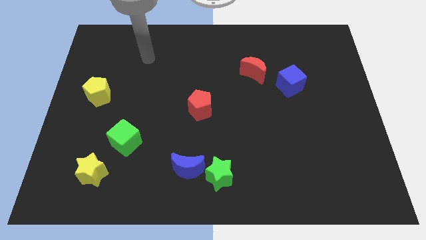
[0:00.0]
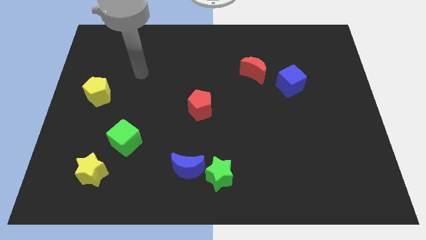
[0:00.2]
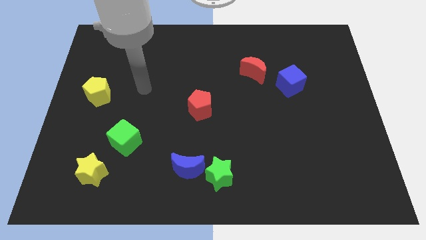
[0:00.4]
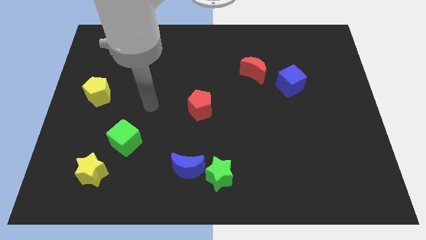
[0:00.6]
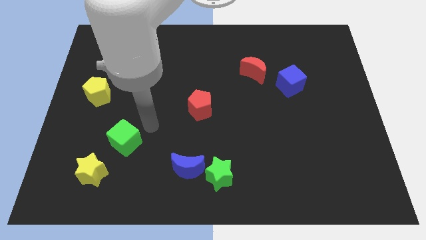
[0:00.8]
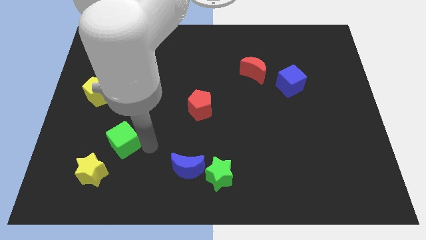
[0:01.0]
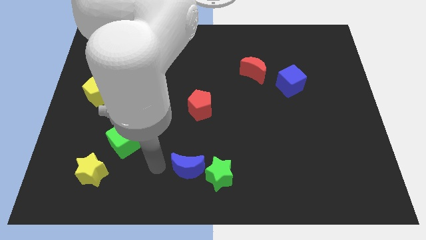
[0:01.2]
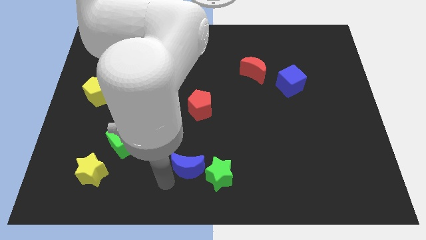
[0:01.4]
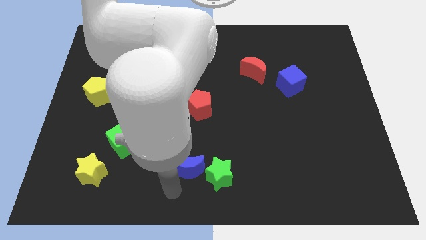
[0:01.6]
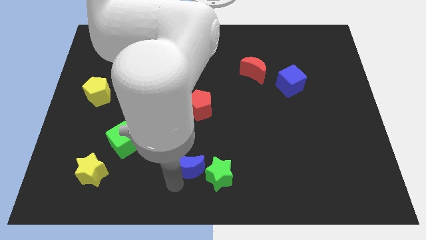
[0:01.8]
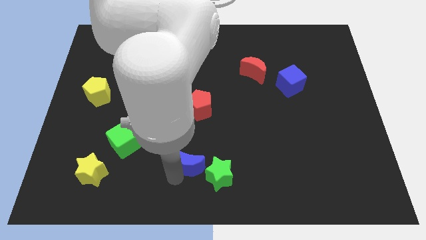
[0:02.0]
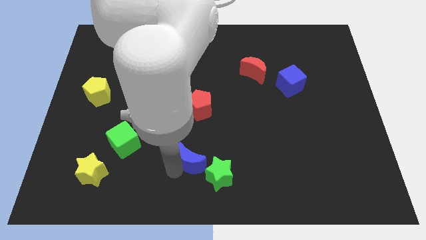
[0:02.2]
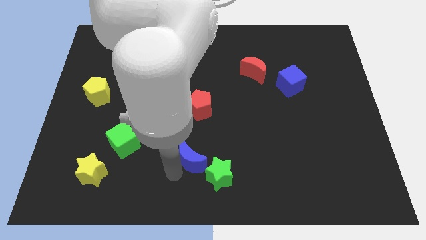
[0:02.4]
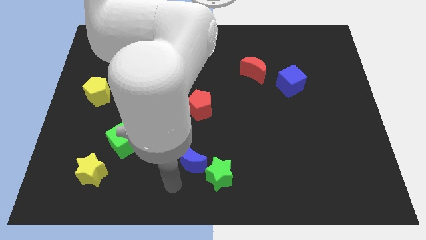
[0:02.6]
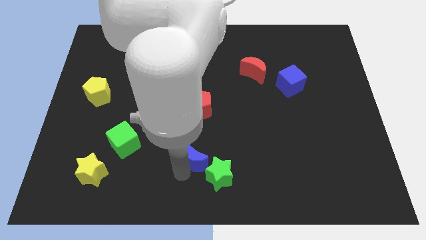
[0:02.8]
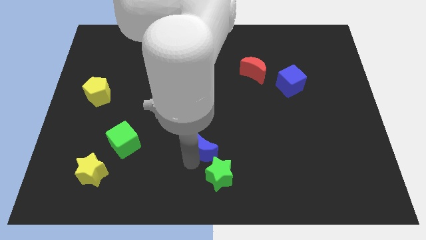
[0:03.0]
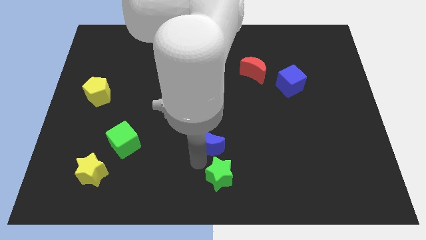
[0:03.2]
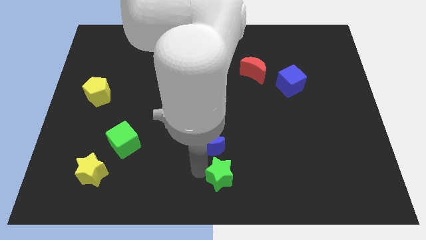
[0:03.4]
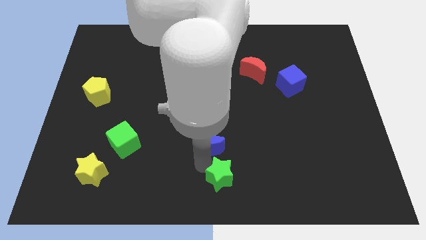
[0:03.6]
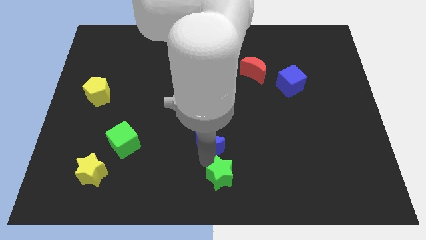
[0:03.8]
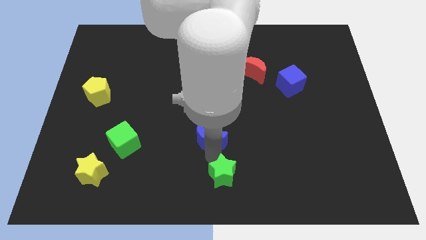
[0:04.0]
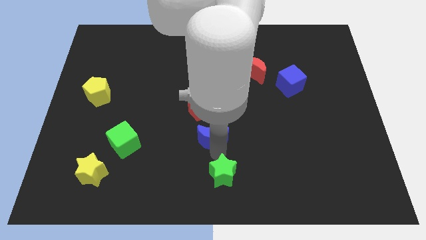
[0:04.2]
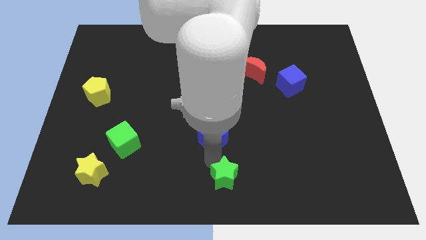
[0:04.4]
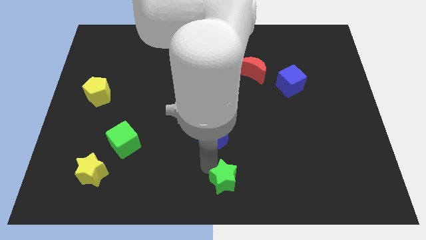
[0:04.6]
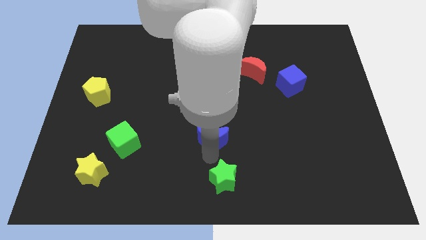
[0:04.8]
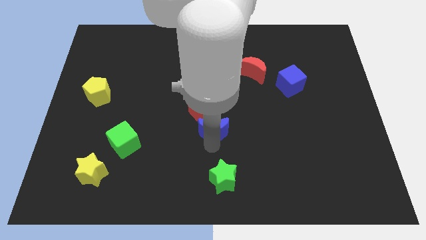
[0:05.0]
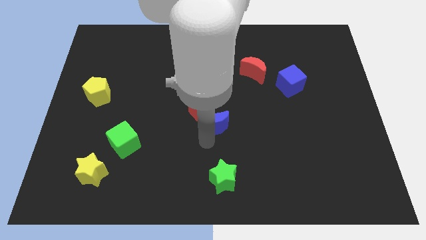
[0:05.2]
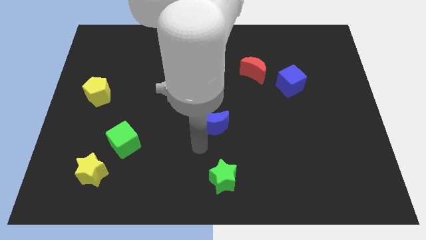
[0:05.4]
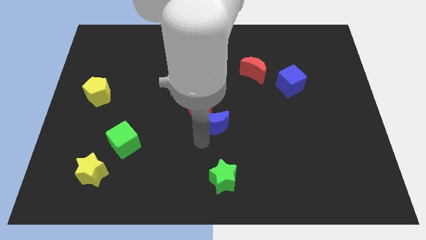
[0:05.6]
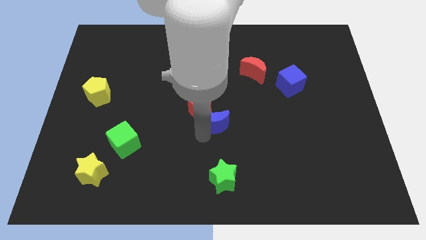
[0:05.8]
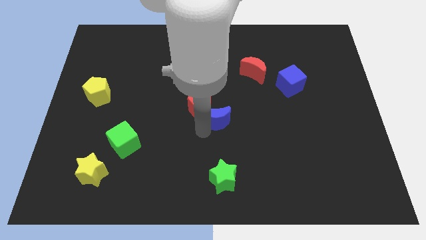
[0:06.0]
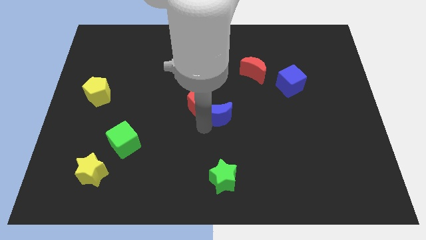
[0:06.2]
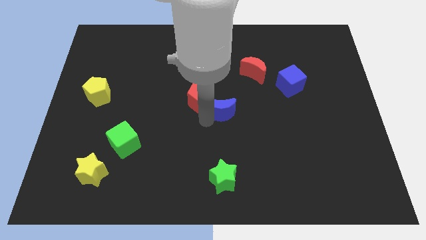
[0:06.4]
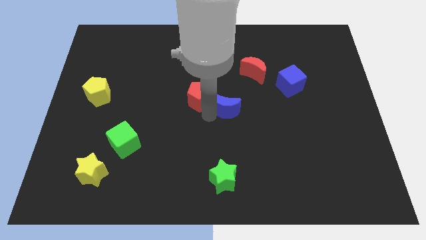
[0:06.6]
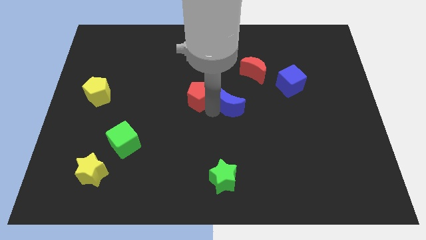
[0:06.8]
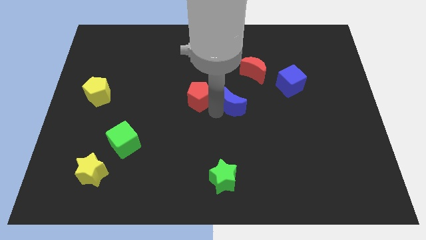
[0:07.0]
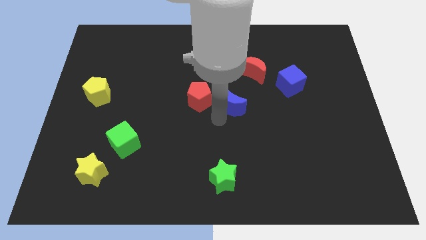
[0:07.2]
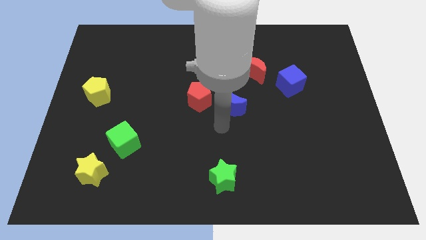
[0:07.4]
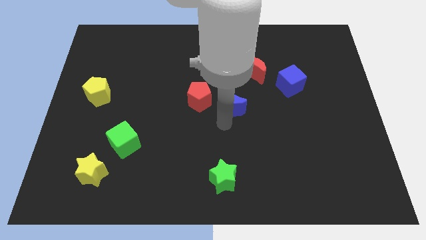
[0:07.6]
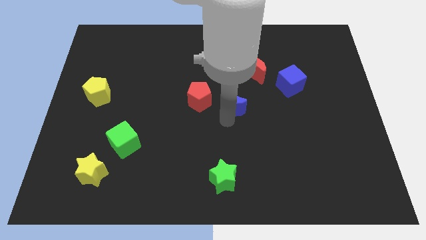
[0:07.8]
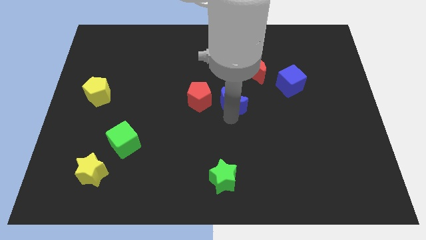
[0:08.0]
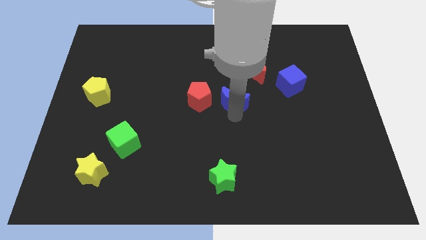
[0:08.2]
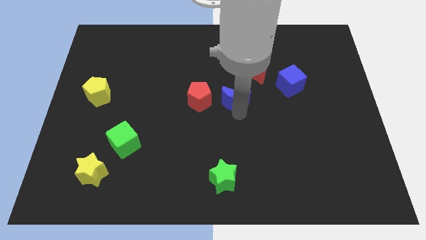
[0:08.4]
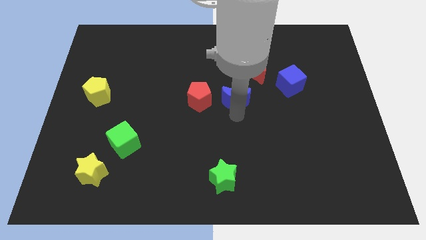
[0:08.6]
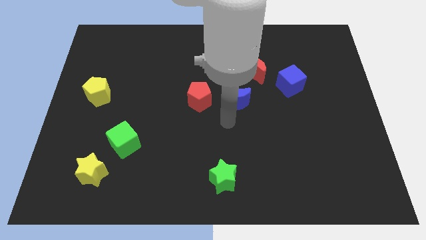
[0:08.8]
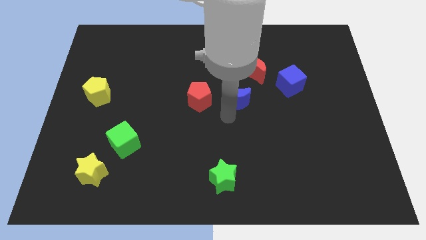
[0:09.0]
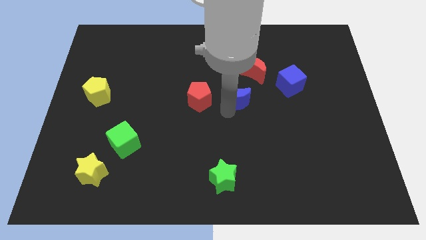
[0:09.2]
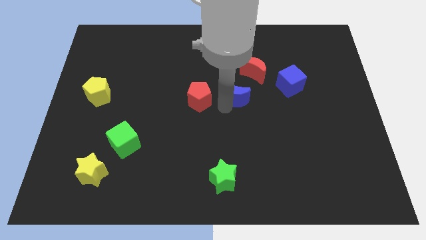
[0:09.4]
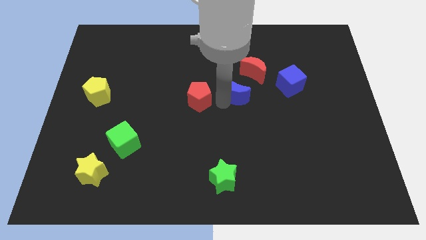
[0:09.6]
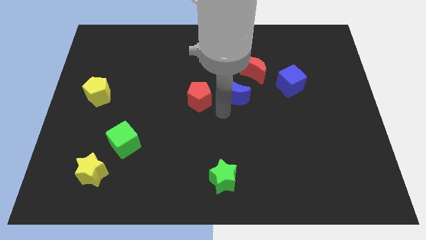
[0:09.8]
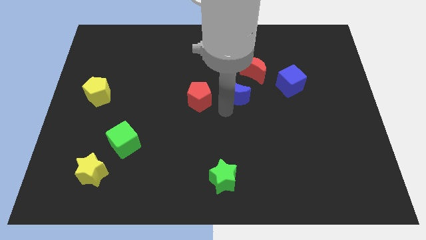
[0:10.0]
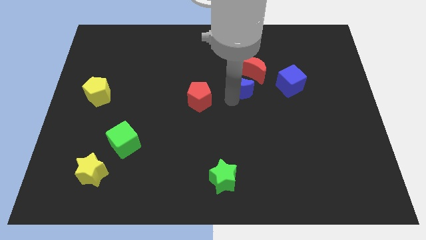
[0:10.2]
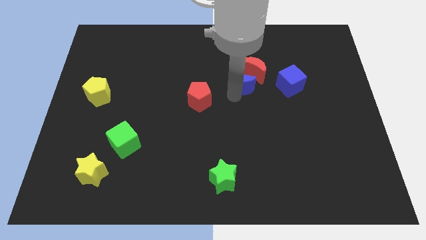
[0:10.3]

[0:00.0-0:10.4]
slide the blue moon towards the red moon

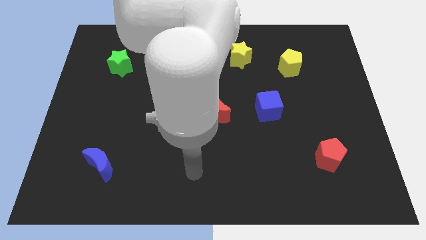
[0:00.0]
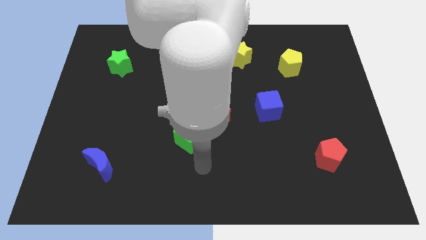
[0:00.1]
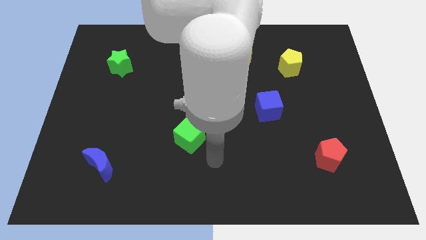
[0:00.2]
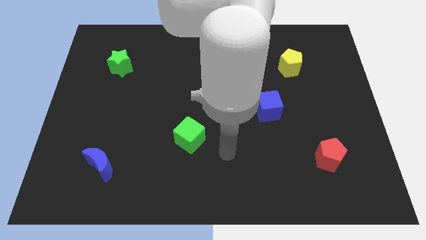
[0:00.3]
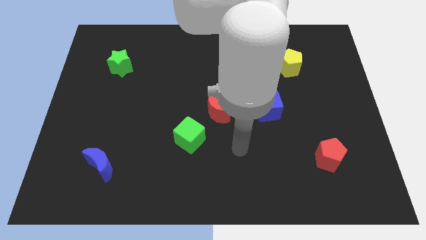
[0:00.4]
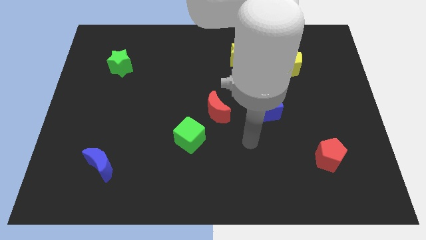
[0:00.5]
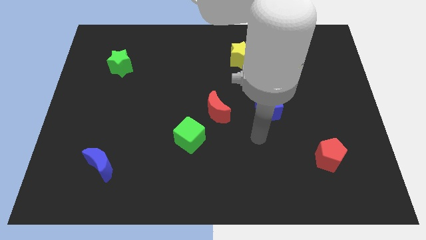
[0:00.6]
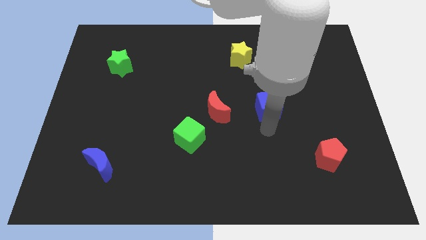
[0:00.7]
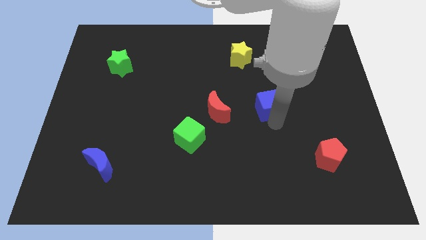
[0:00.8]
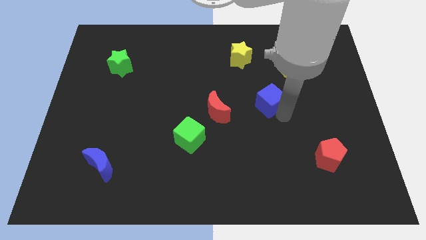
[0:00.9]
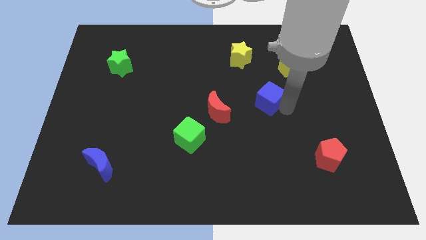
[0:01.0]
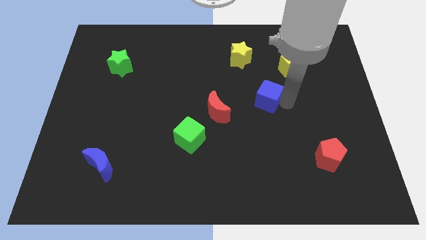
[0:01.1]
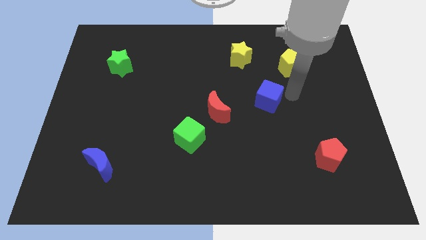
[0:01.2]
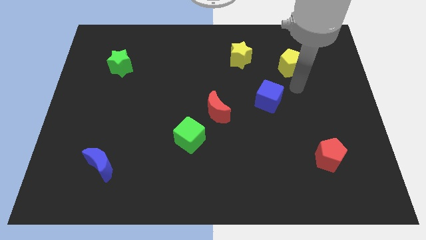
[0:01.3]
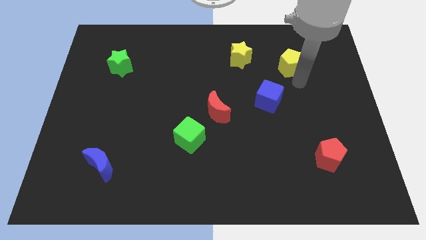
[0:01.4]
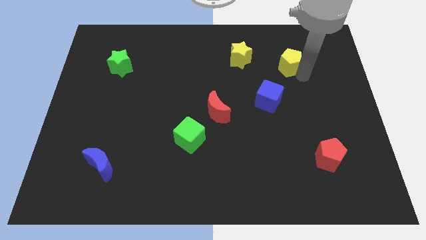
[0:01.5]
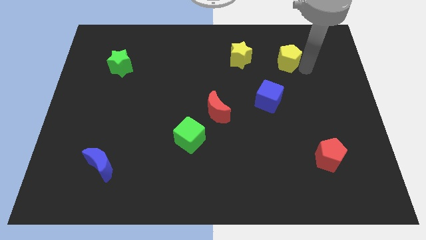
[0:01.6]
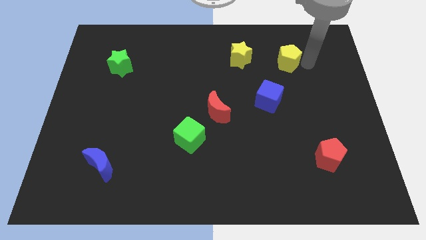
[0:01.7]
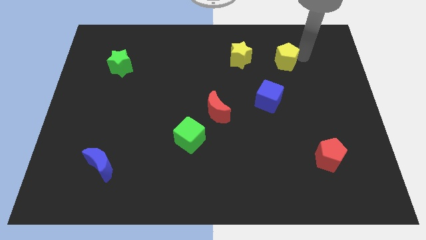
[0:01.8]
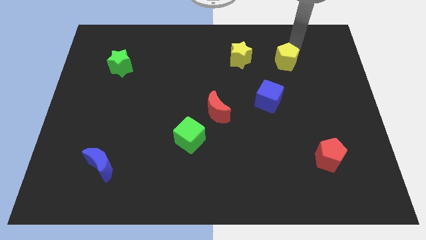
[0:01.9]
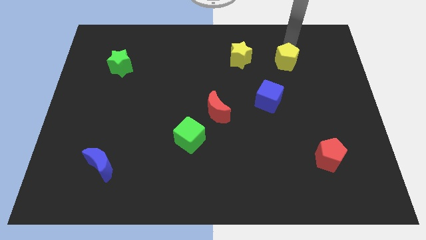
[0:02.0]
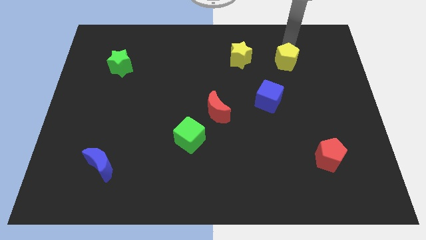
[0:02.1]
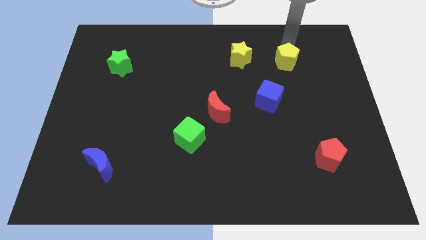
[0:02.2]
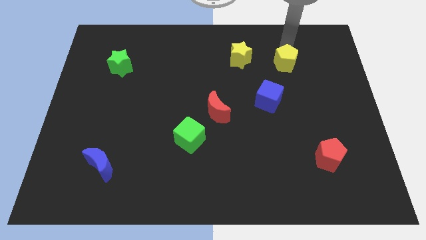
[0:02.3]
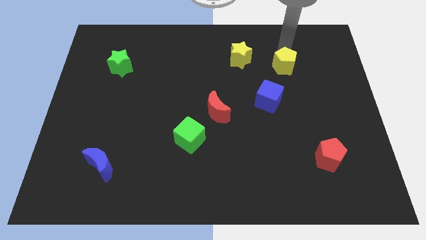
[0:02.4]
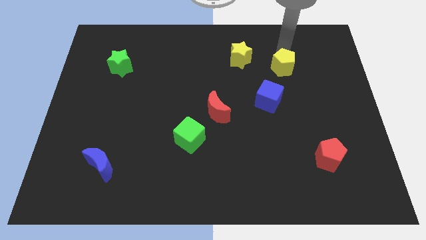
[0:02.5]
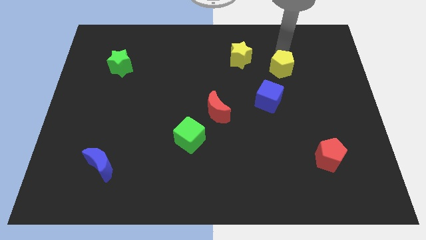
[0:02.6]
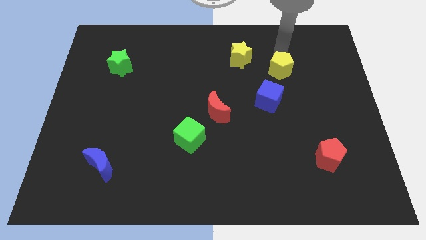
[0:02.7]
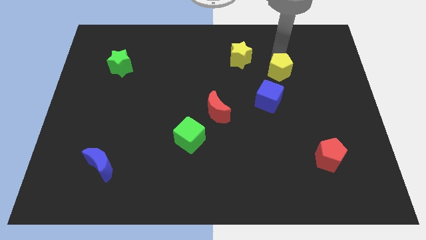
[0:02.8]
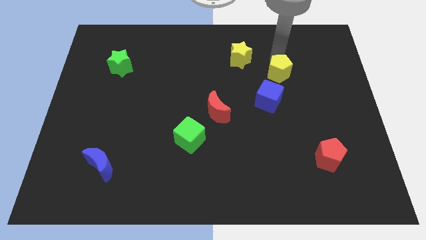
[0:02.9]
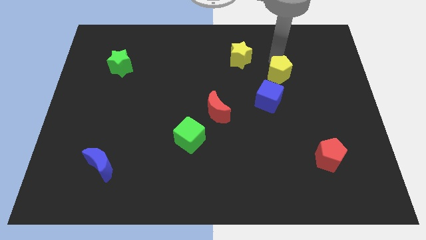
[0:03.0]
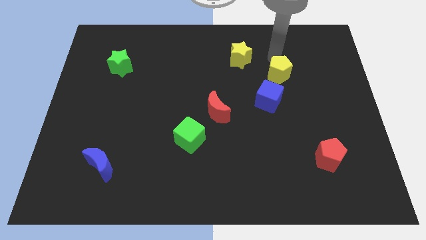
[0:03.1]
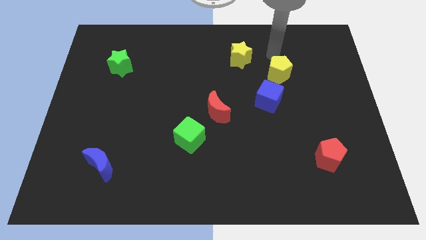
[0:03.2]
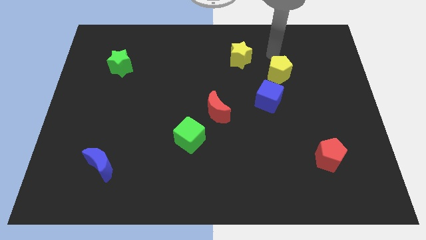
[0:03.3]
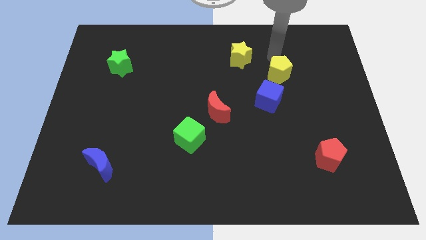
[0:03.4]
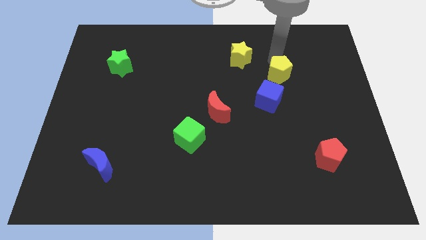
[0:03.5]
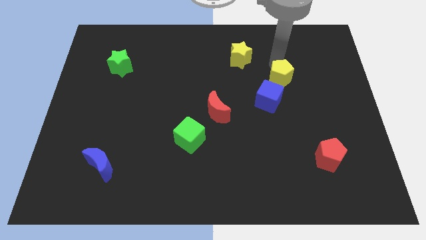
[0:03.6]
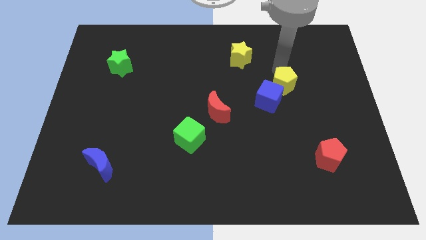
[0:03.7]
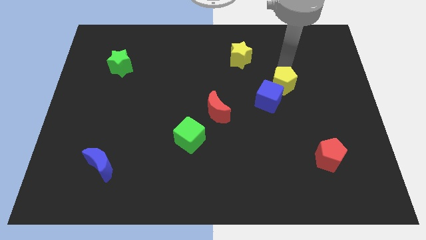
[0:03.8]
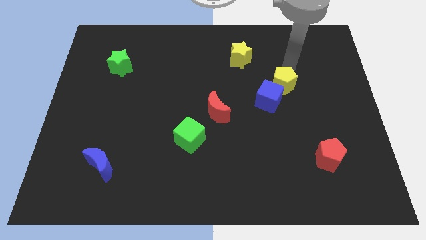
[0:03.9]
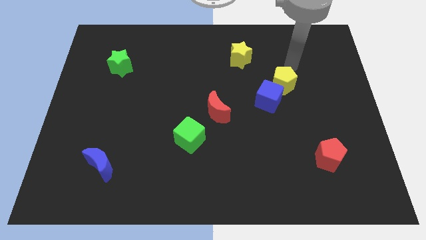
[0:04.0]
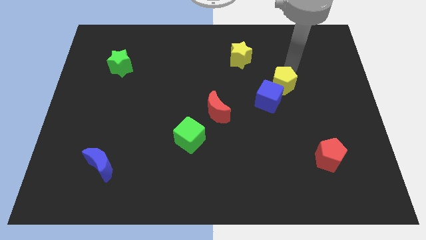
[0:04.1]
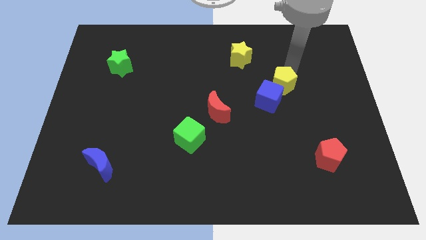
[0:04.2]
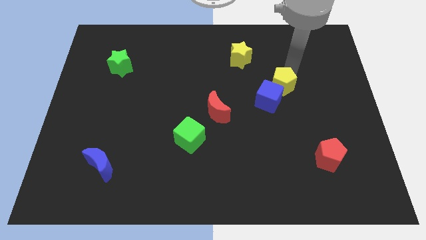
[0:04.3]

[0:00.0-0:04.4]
move the yellow pentagon next to the blue cube
